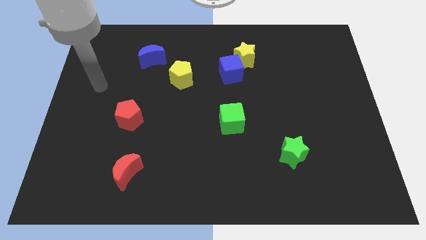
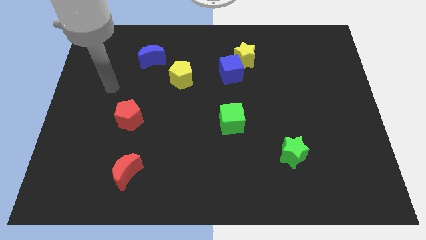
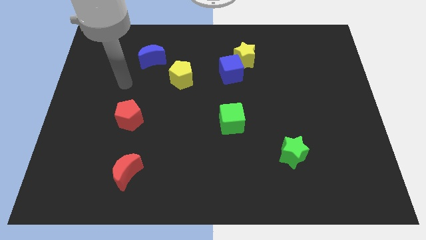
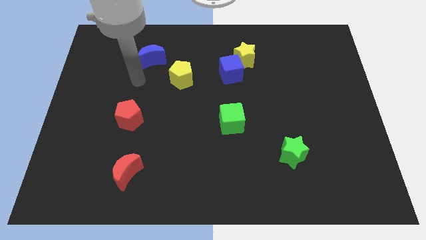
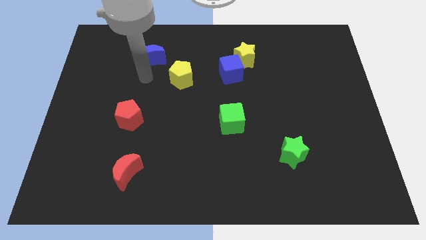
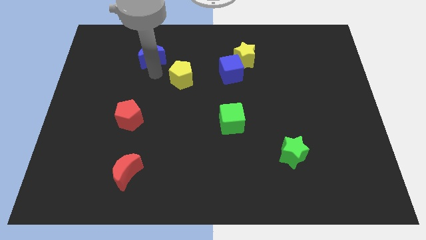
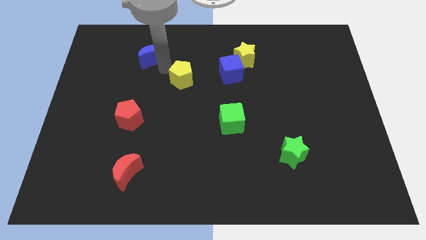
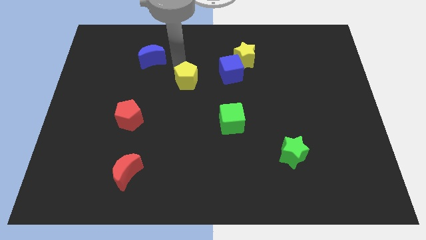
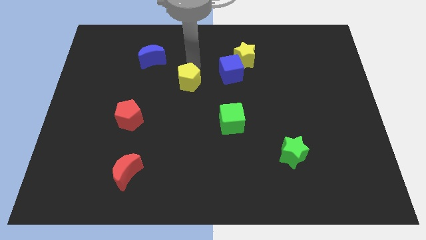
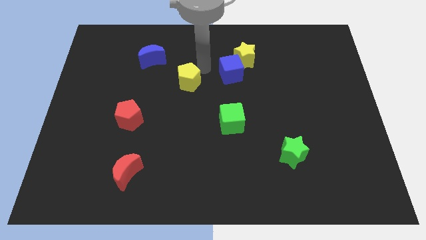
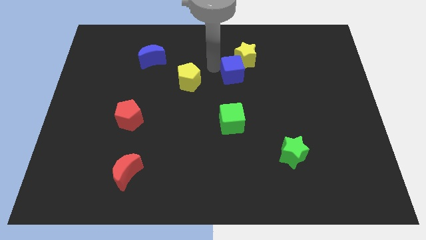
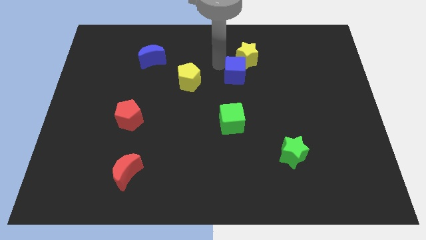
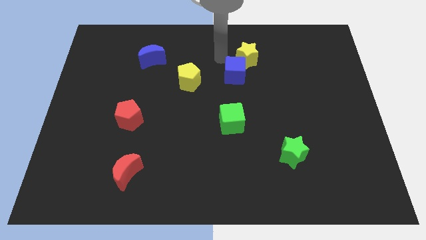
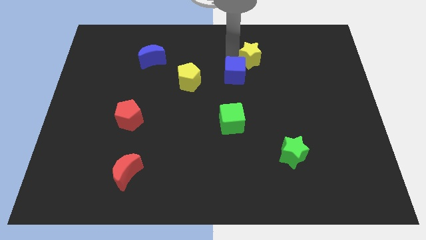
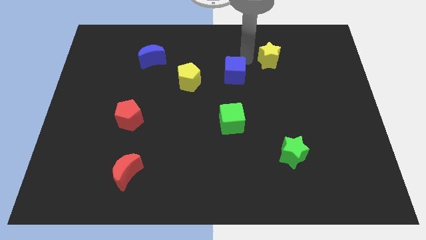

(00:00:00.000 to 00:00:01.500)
separate the blue cube from the yellow star

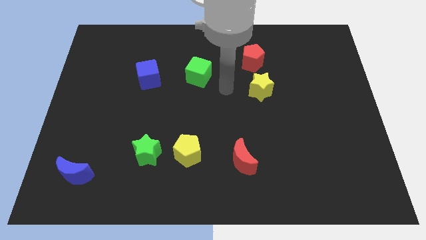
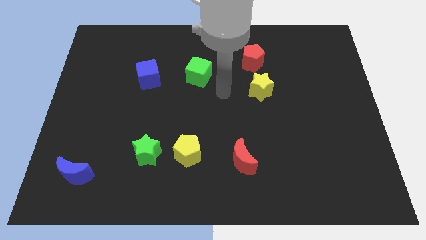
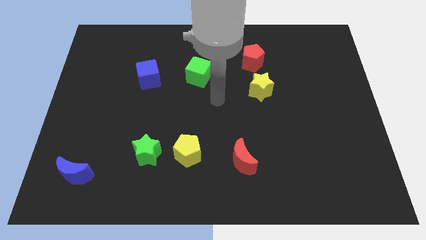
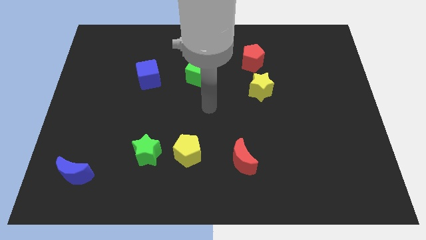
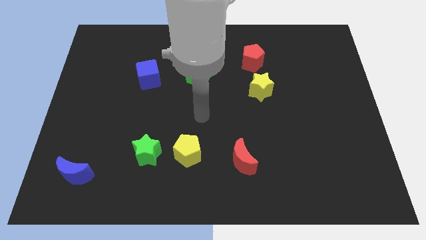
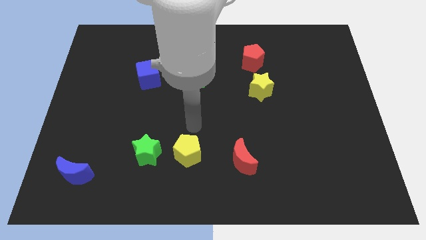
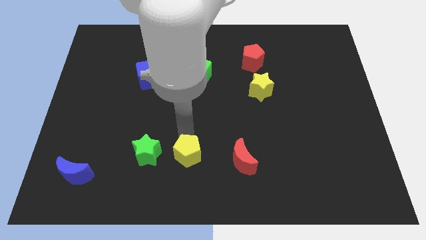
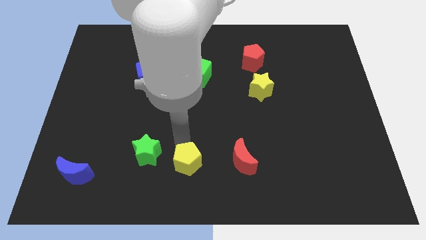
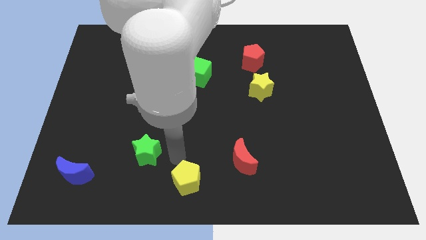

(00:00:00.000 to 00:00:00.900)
pull the green star apart from the yellow pentagon

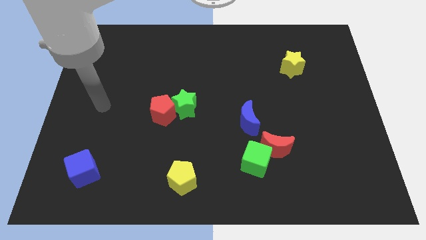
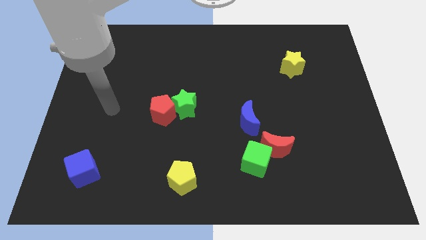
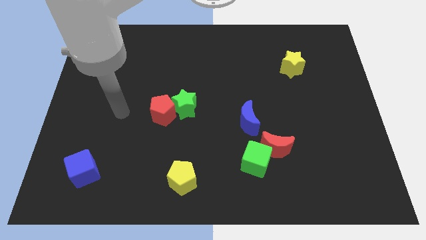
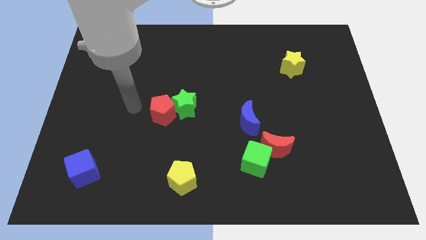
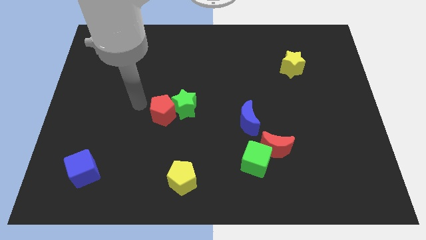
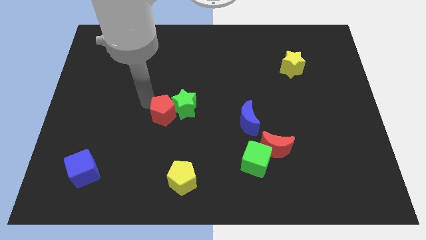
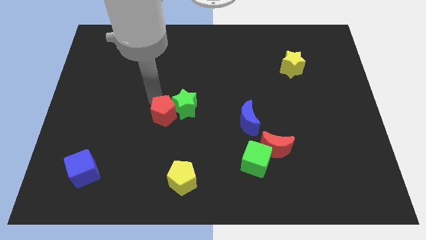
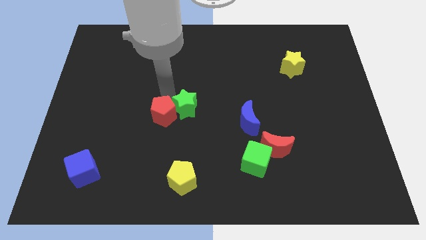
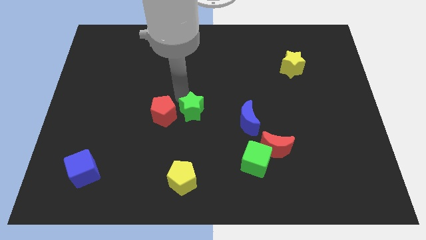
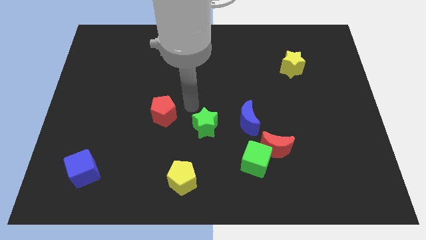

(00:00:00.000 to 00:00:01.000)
move the red pentagon away from the green star

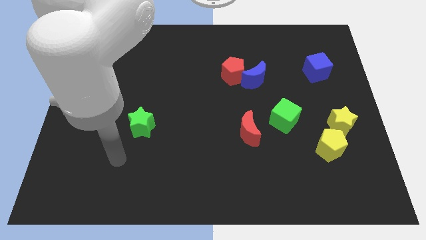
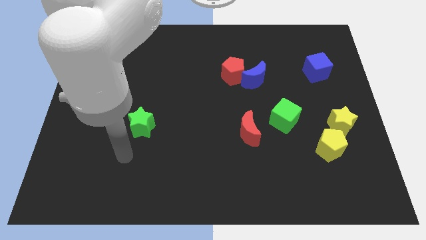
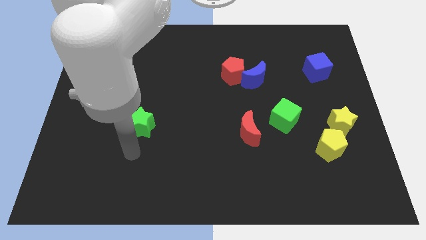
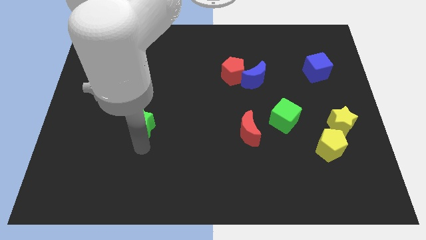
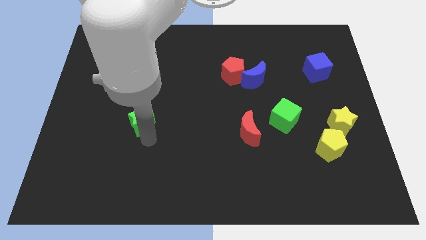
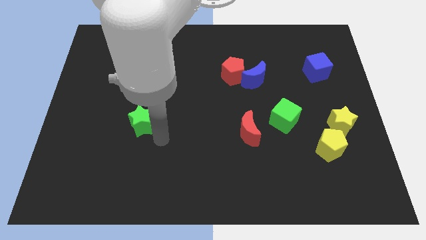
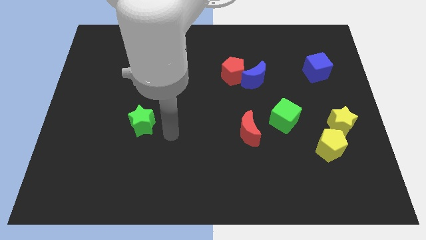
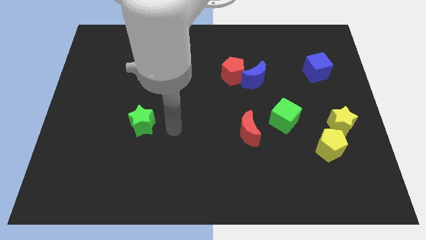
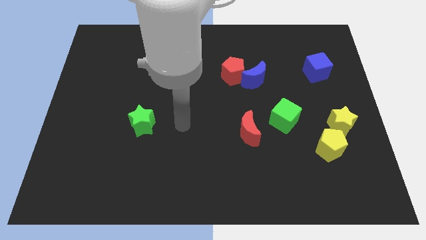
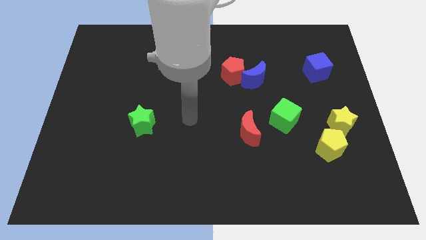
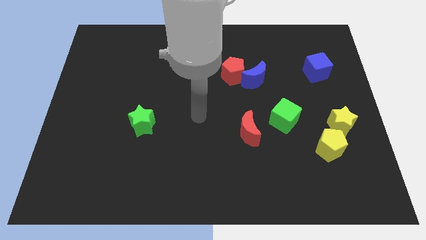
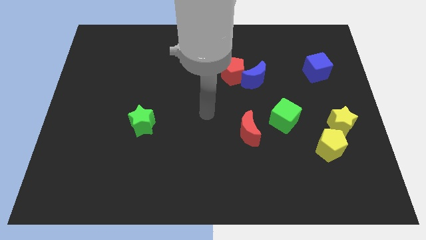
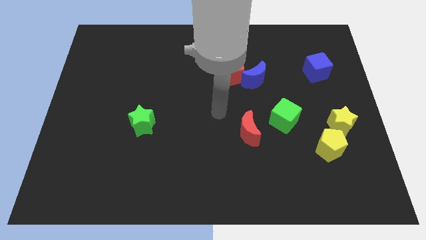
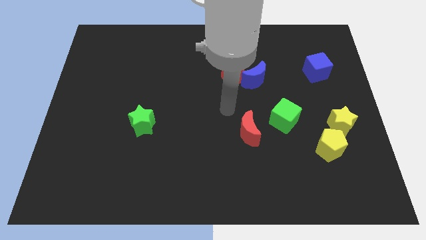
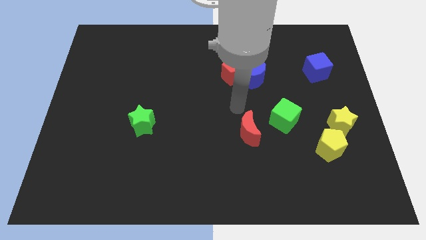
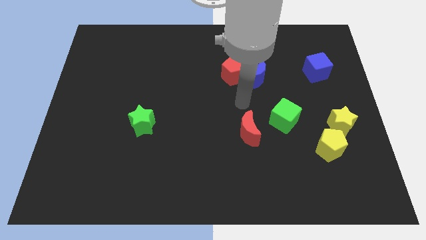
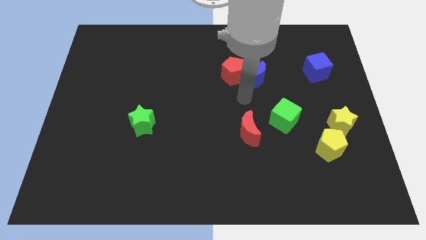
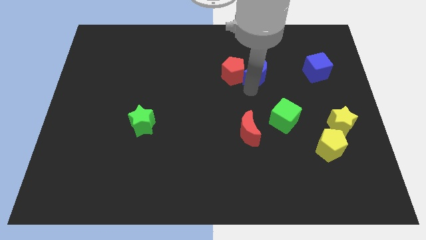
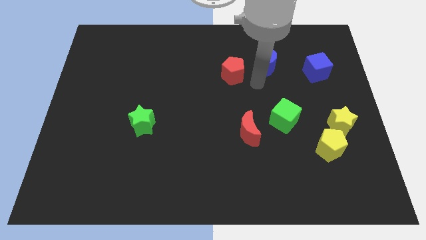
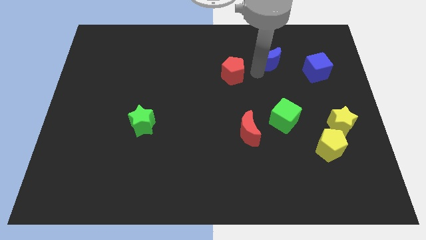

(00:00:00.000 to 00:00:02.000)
pull the red pentagon apart from the blue moon

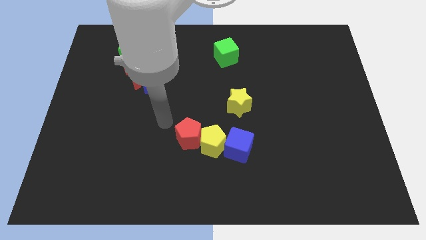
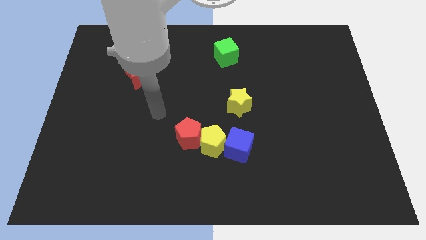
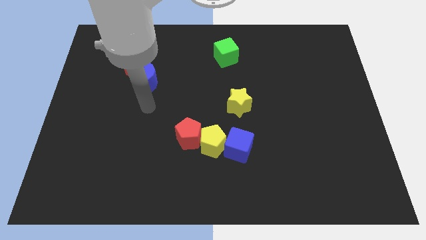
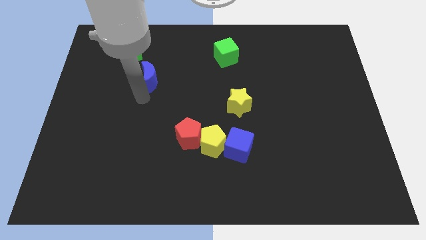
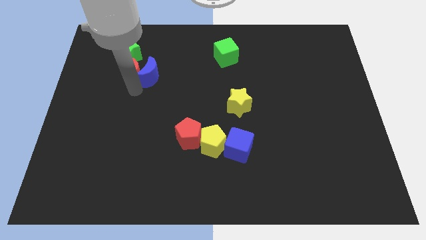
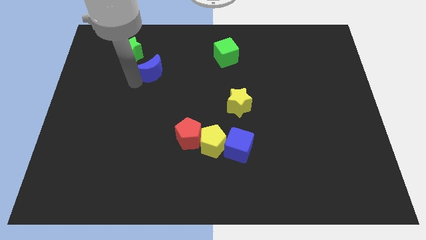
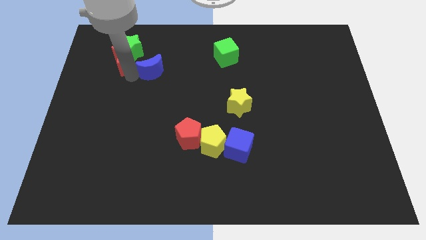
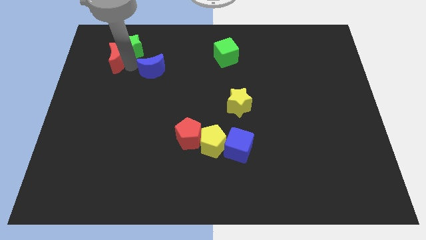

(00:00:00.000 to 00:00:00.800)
separate the blue moon from the red moon

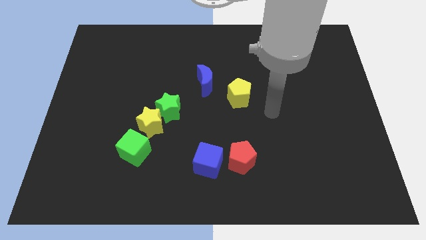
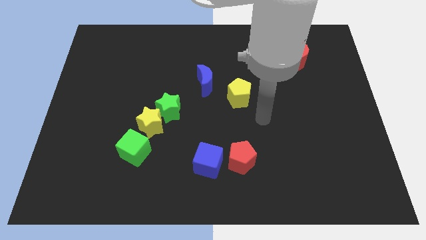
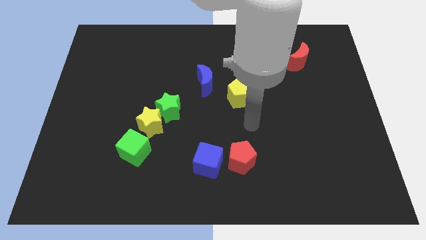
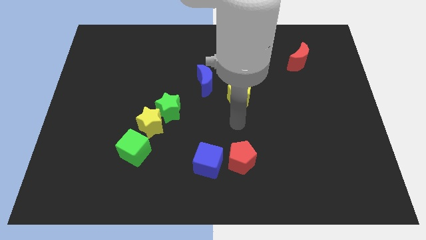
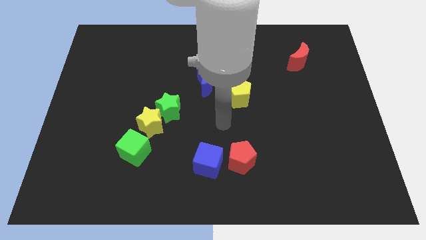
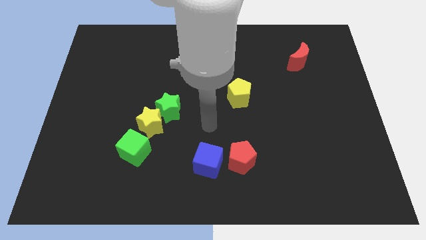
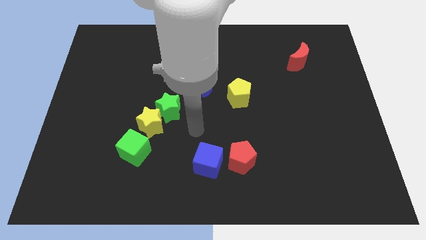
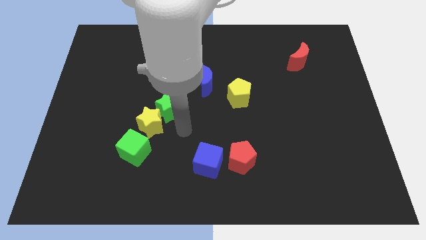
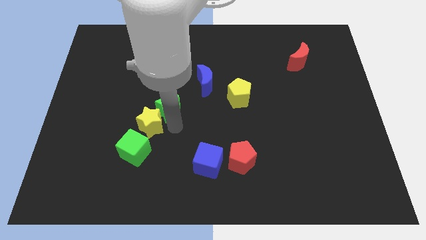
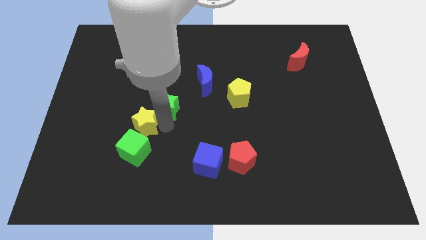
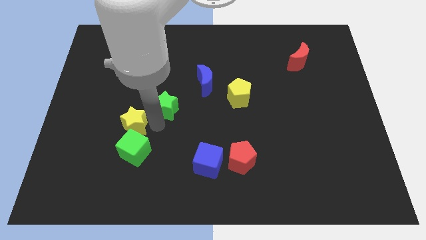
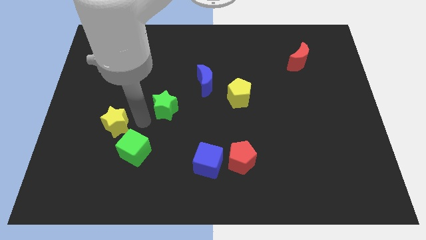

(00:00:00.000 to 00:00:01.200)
pull the green star apart from the yellow star

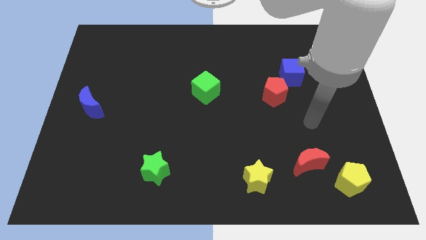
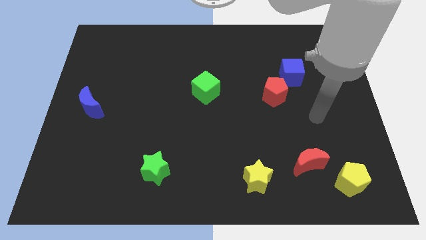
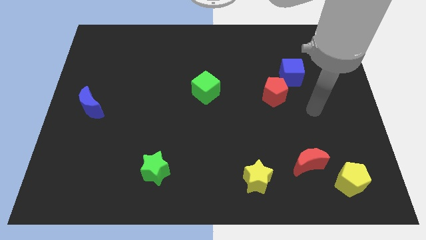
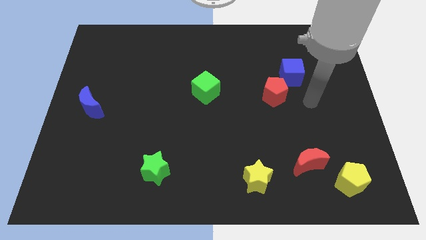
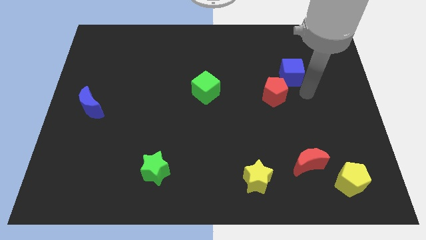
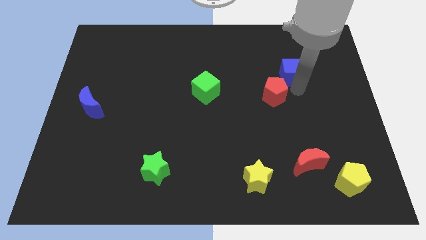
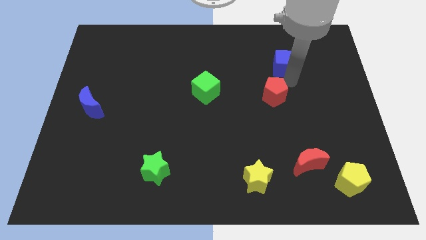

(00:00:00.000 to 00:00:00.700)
move the red pentagon away from the blue cube

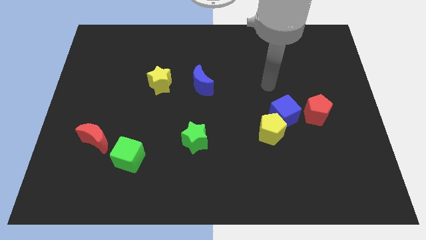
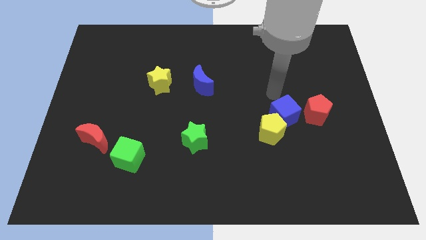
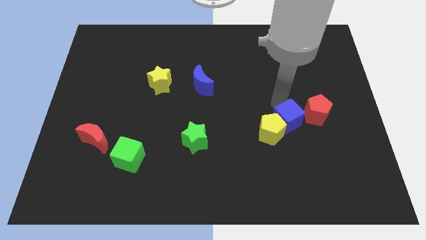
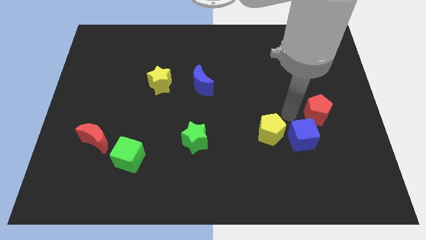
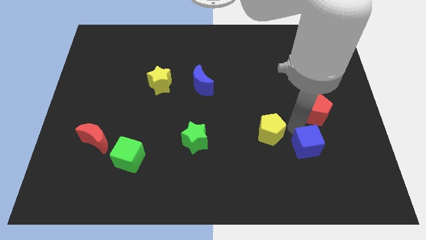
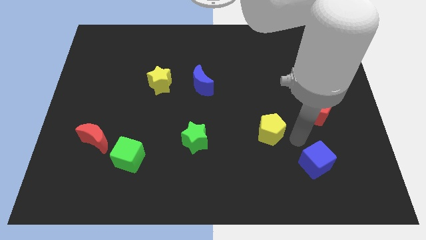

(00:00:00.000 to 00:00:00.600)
separate the yellow pentagon from the blue cube

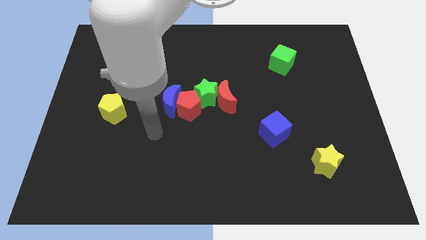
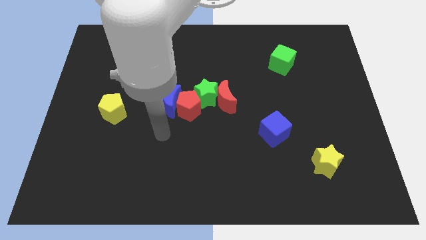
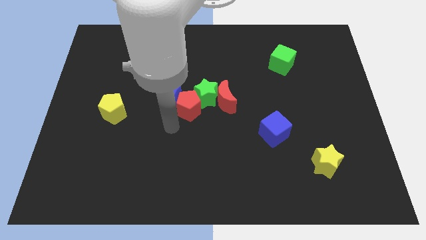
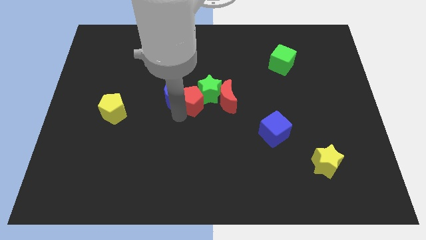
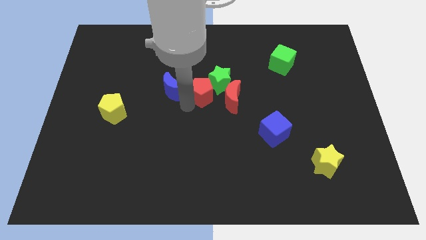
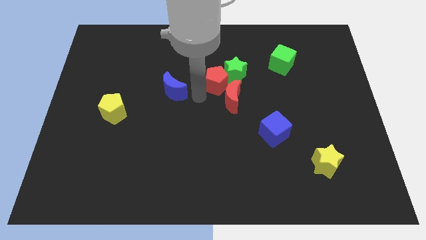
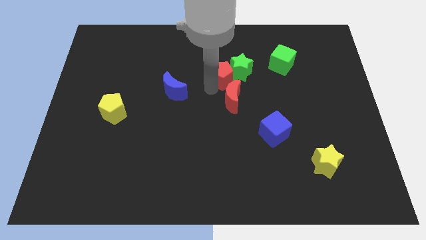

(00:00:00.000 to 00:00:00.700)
separate the green star from the red moon, red pentagon, and blue moon
